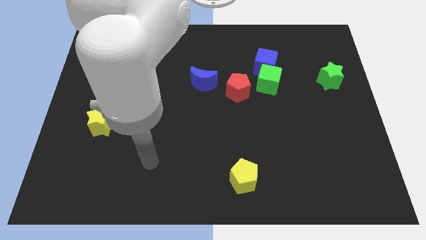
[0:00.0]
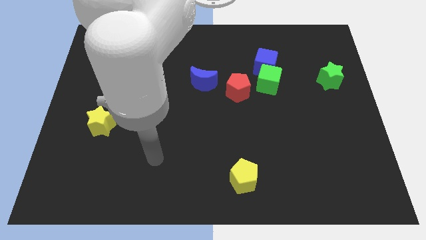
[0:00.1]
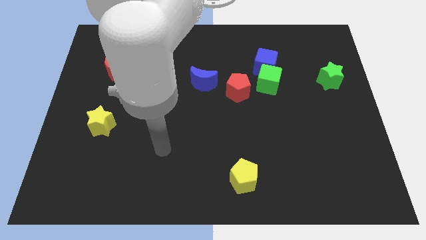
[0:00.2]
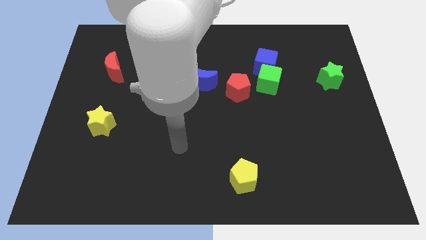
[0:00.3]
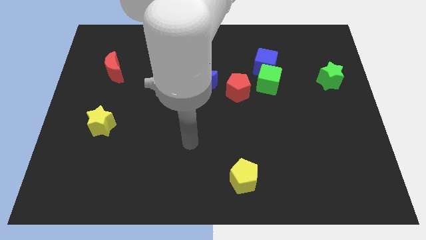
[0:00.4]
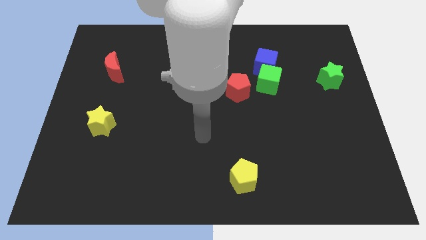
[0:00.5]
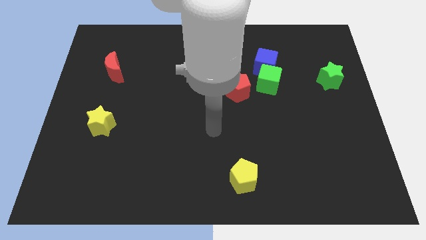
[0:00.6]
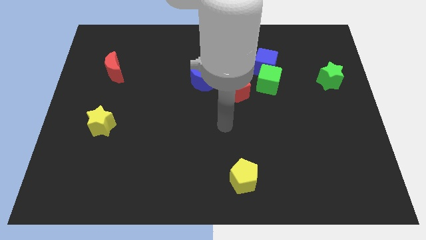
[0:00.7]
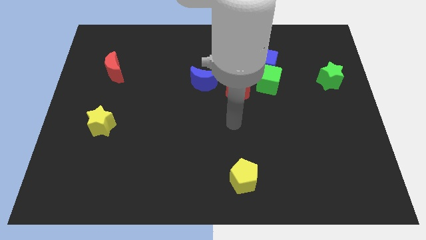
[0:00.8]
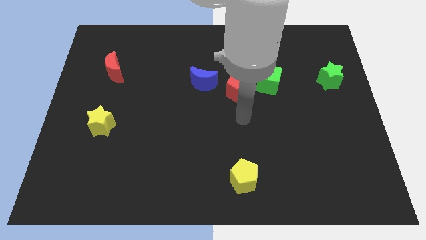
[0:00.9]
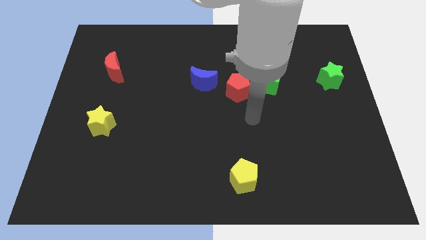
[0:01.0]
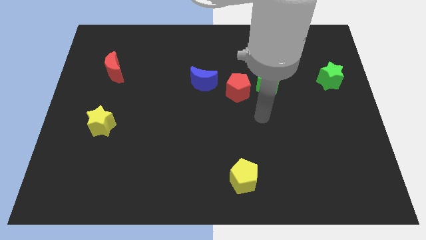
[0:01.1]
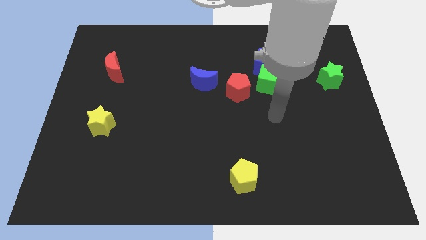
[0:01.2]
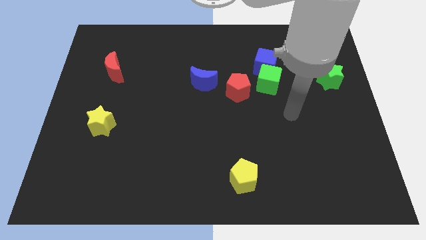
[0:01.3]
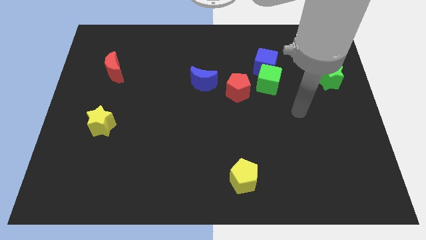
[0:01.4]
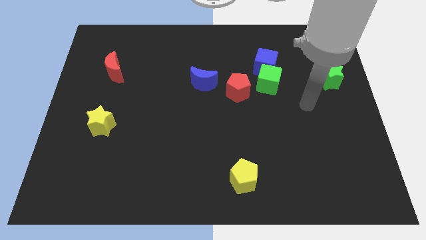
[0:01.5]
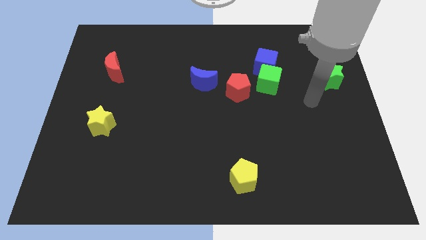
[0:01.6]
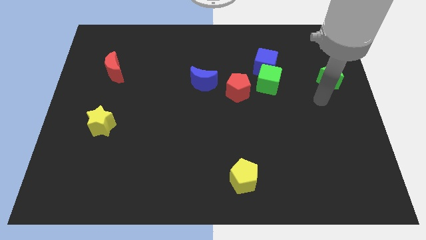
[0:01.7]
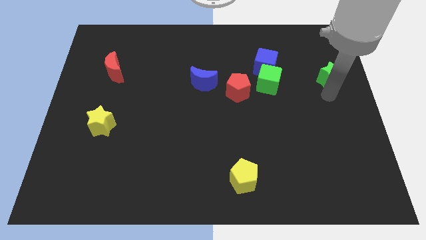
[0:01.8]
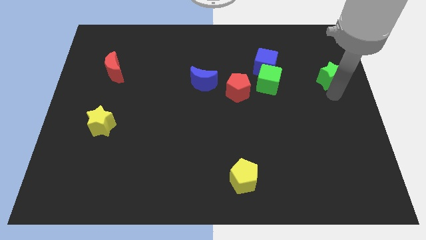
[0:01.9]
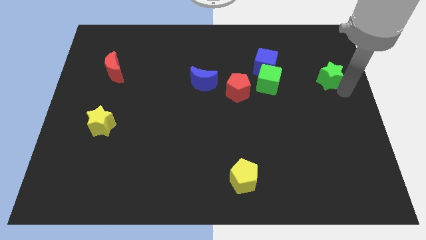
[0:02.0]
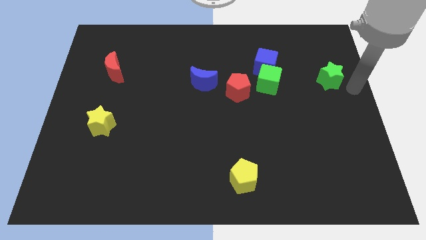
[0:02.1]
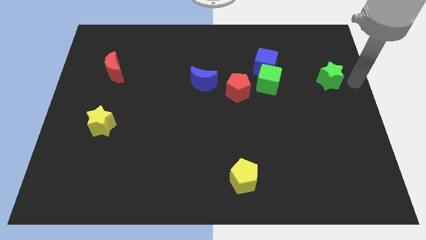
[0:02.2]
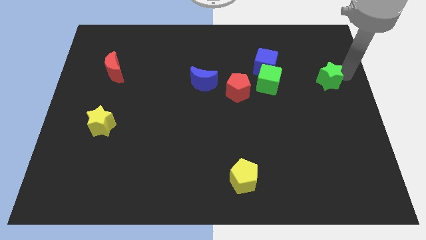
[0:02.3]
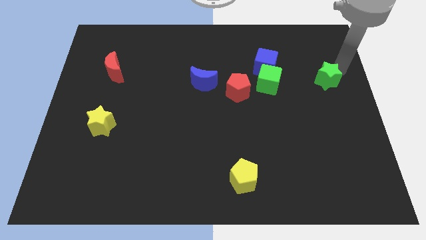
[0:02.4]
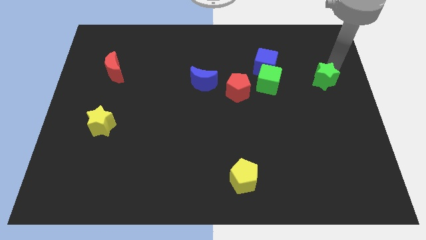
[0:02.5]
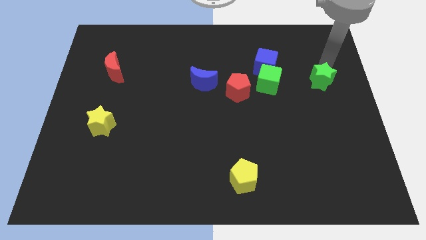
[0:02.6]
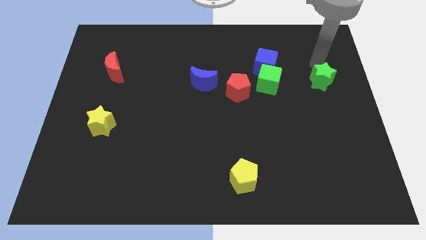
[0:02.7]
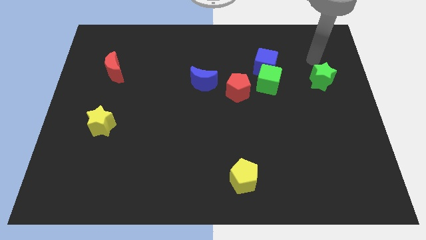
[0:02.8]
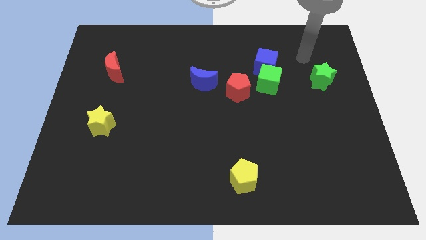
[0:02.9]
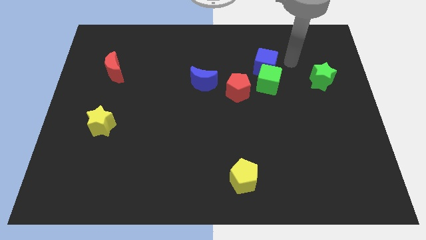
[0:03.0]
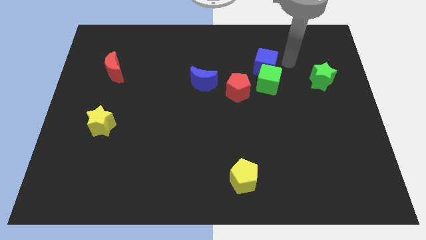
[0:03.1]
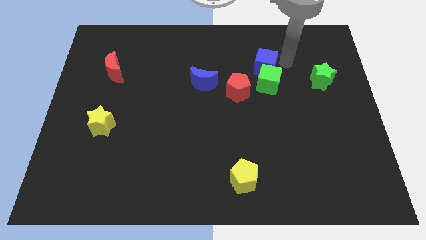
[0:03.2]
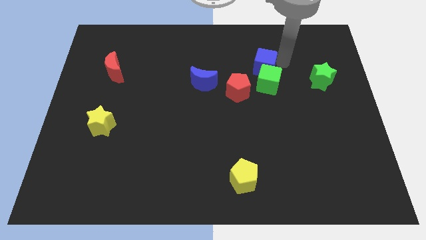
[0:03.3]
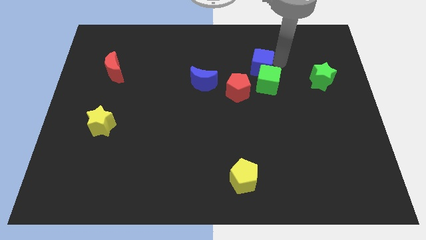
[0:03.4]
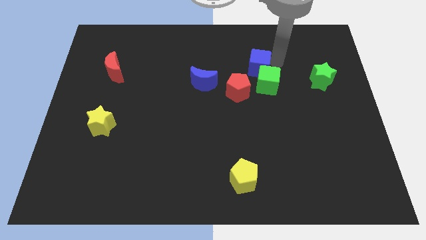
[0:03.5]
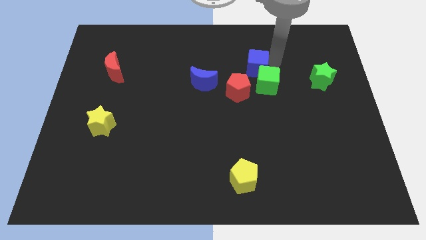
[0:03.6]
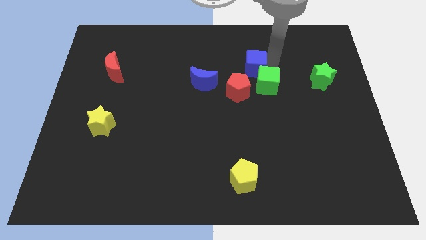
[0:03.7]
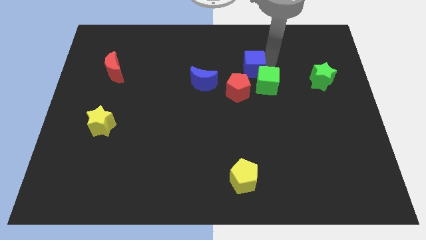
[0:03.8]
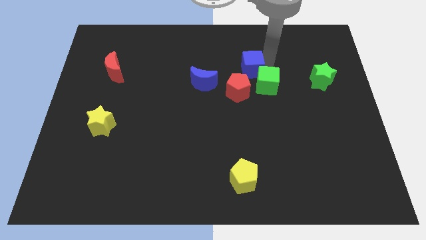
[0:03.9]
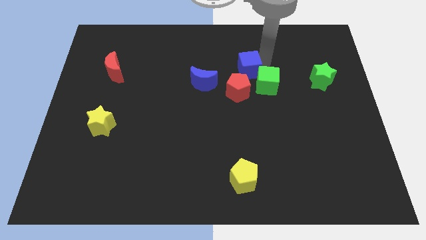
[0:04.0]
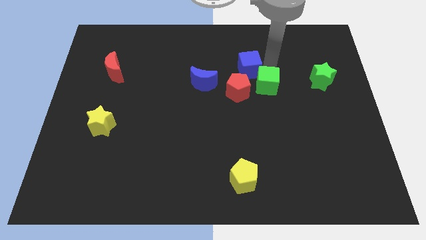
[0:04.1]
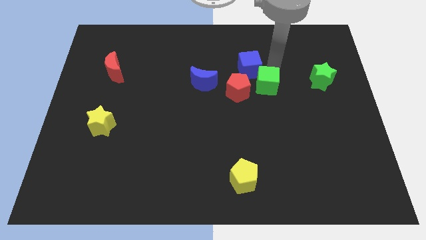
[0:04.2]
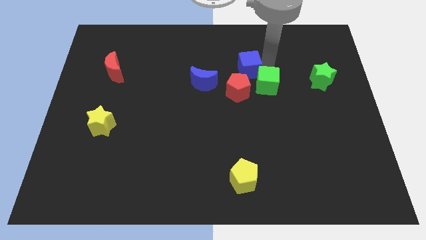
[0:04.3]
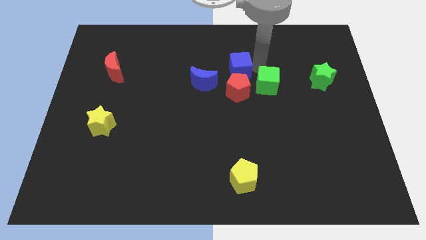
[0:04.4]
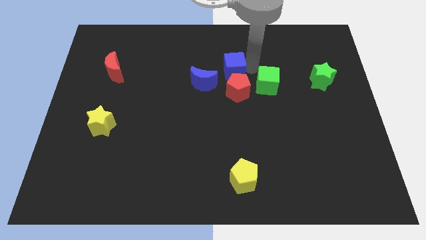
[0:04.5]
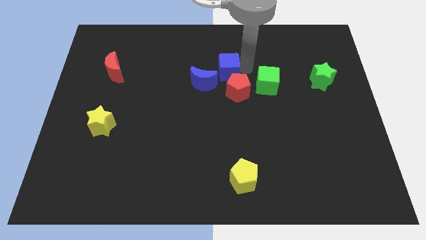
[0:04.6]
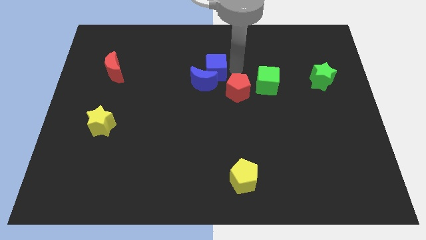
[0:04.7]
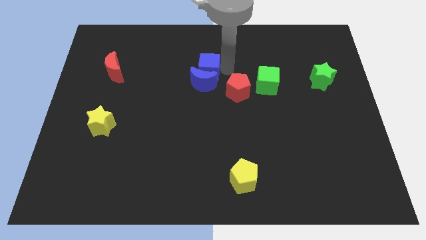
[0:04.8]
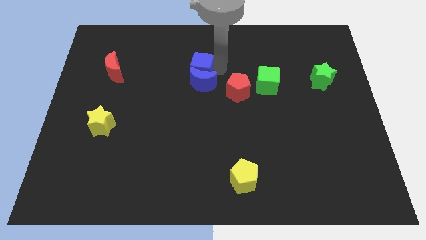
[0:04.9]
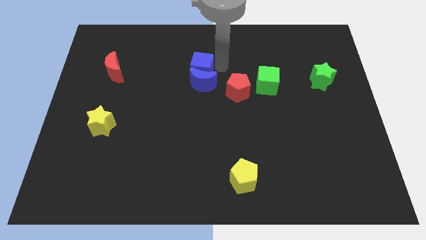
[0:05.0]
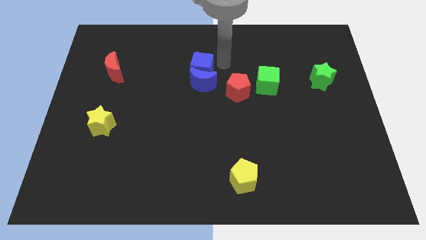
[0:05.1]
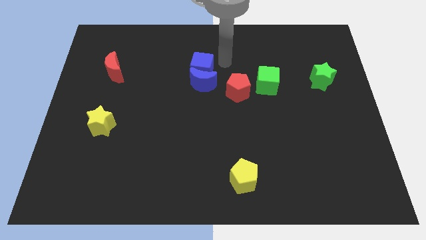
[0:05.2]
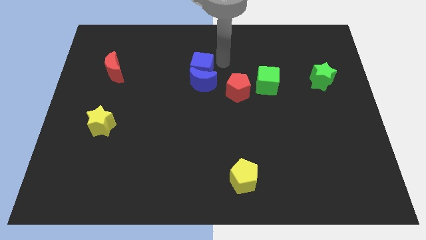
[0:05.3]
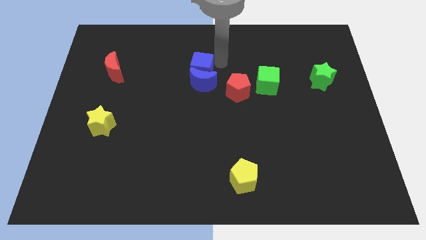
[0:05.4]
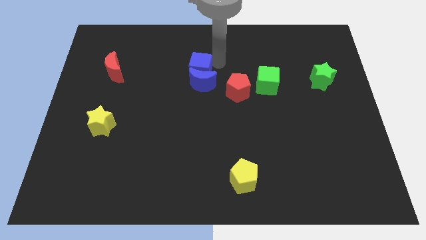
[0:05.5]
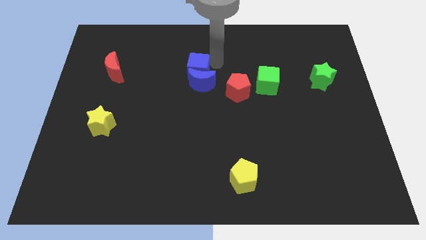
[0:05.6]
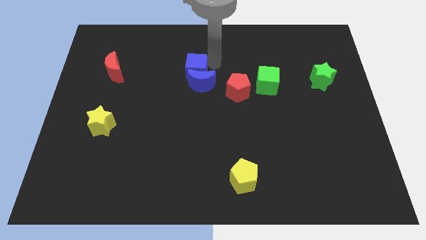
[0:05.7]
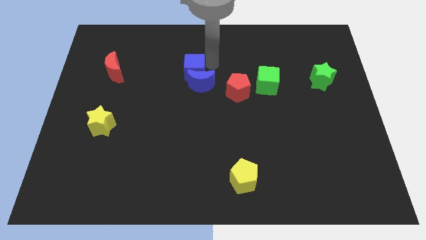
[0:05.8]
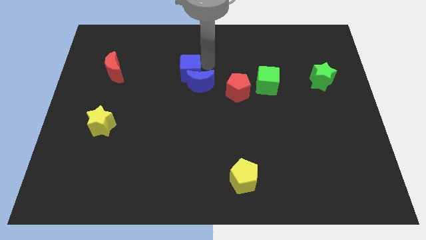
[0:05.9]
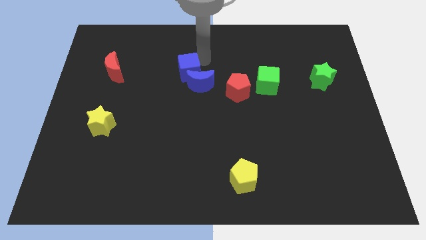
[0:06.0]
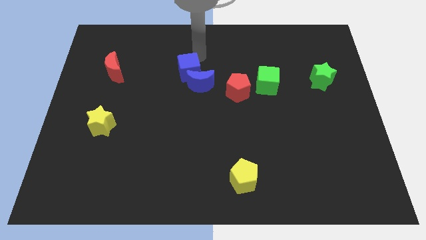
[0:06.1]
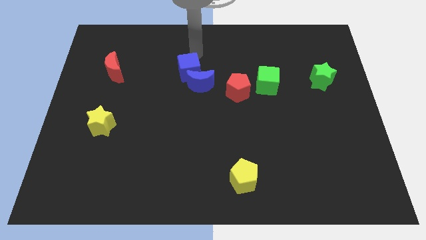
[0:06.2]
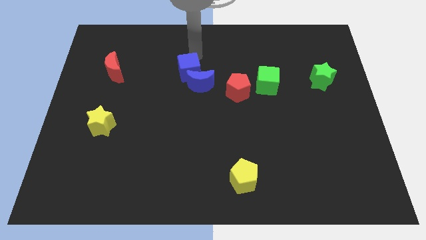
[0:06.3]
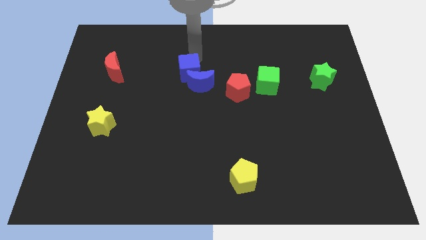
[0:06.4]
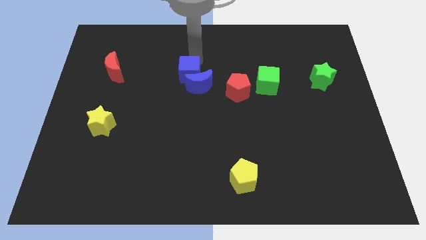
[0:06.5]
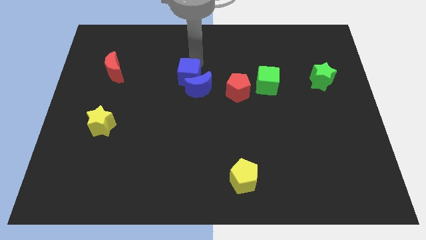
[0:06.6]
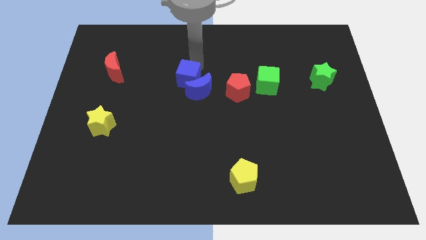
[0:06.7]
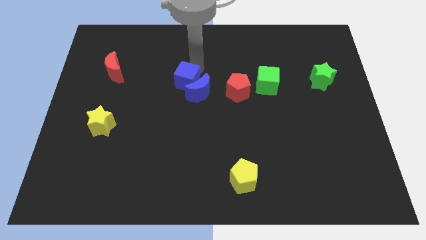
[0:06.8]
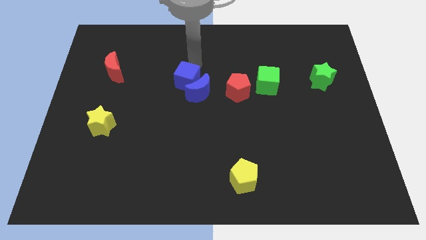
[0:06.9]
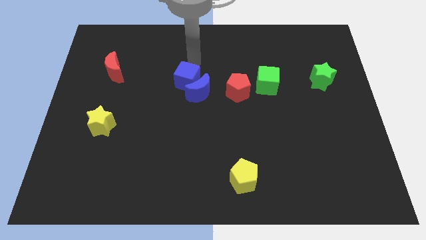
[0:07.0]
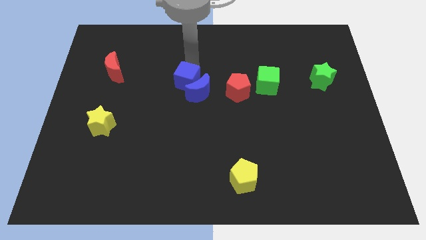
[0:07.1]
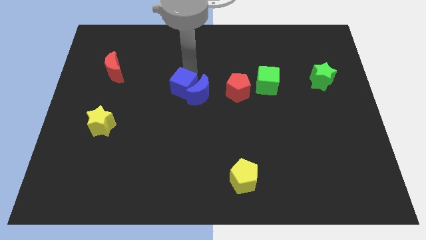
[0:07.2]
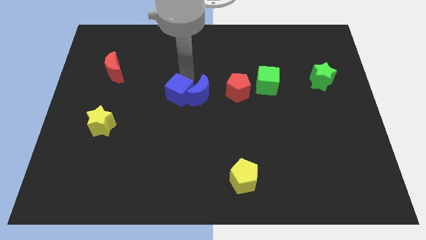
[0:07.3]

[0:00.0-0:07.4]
push the blue cube to the bottom left of the blue moon
